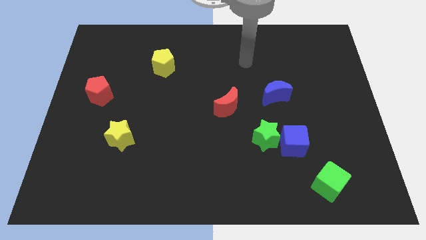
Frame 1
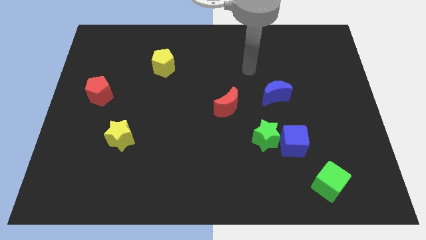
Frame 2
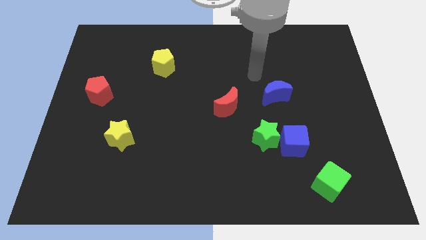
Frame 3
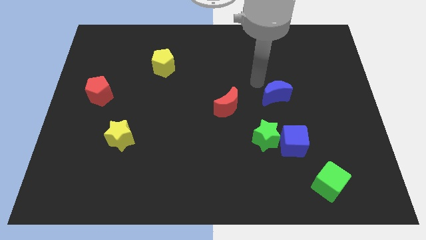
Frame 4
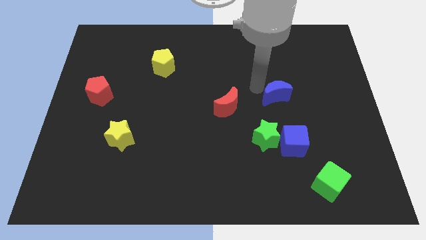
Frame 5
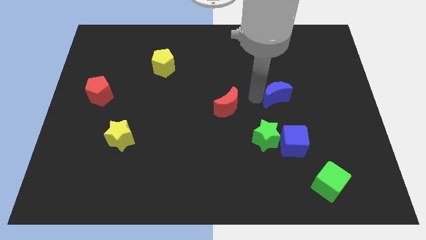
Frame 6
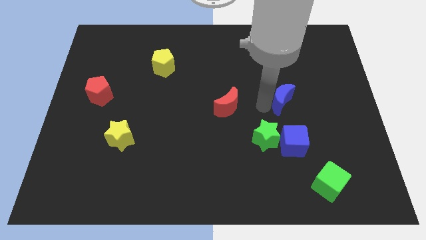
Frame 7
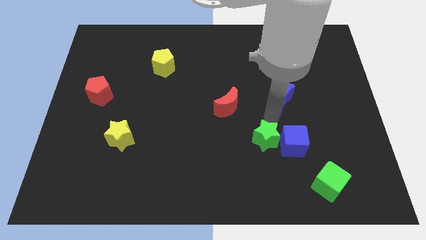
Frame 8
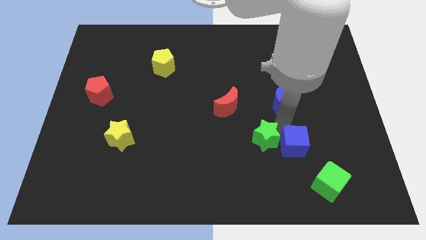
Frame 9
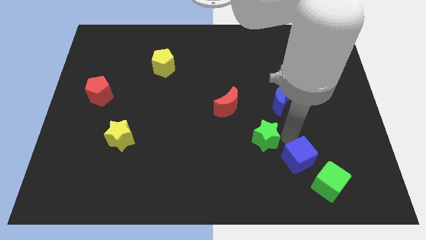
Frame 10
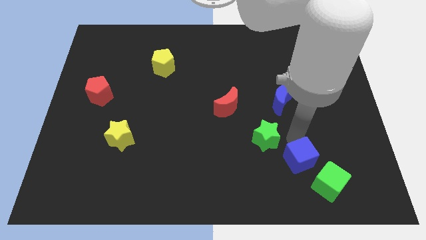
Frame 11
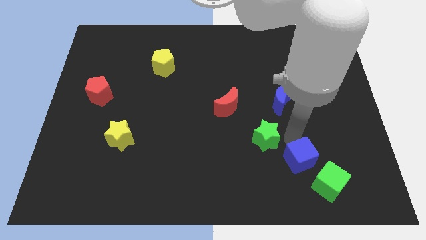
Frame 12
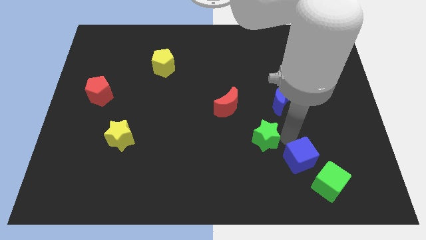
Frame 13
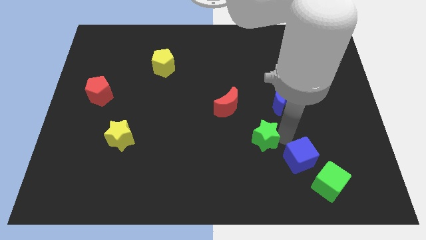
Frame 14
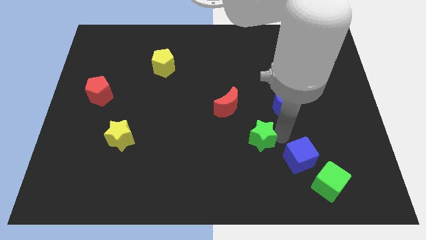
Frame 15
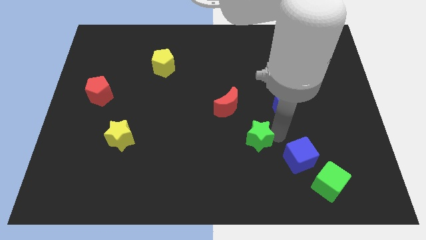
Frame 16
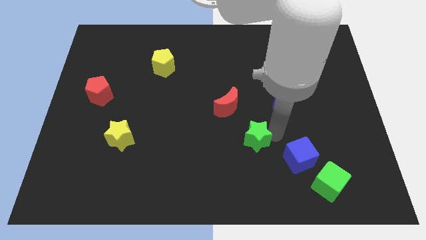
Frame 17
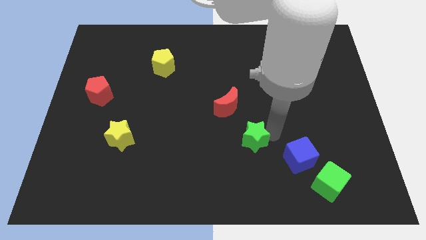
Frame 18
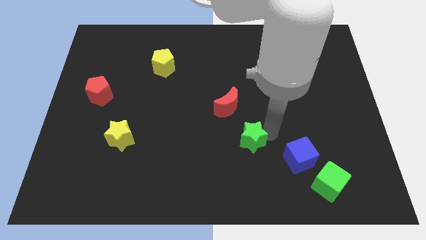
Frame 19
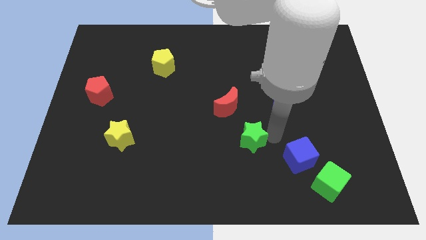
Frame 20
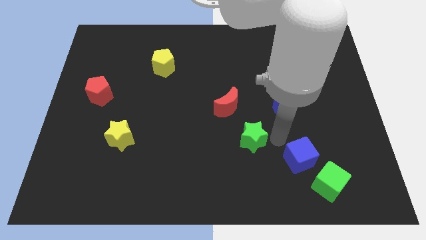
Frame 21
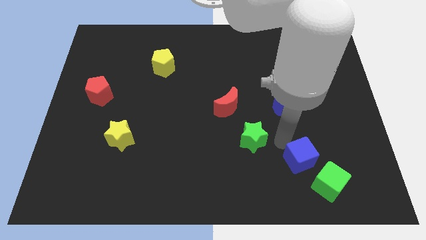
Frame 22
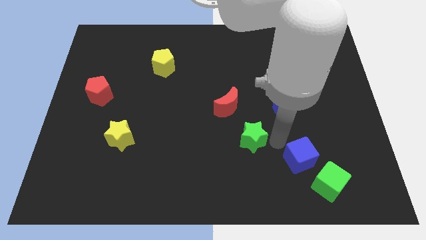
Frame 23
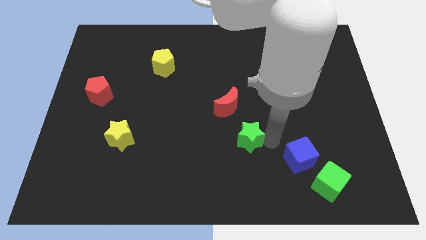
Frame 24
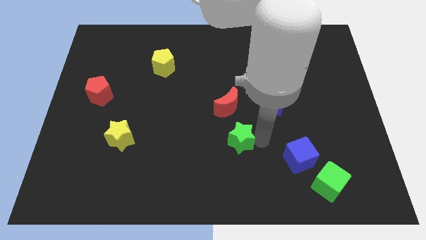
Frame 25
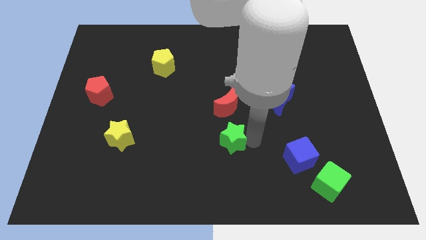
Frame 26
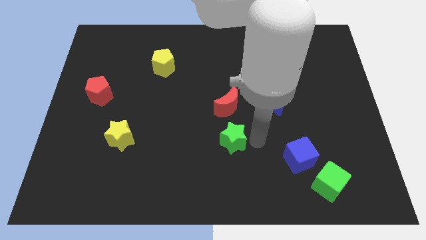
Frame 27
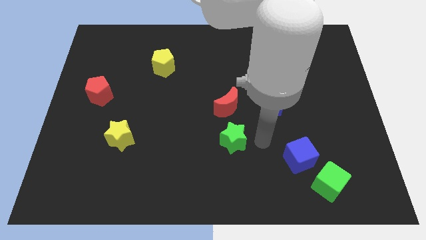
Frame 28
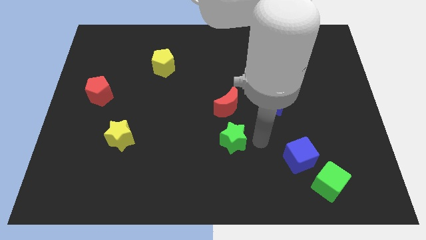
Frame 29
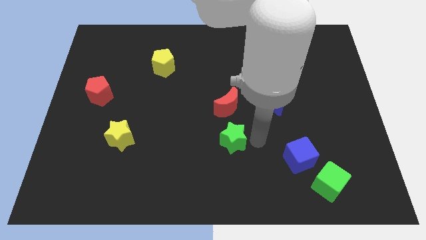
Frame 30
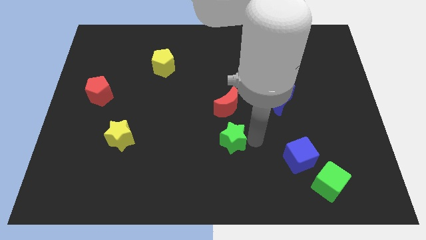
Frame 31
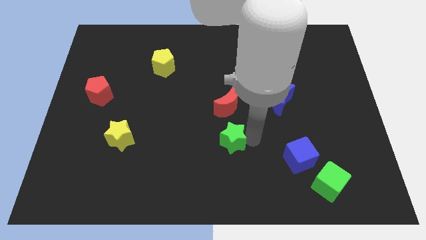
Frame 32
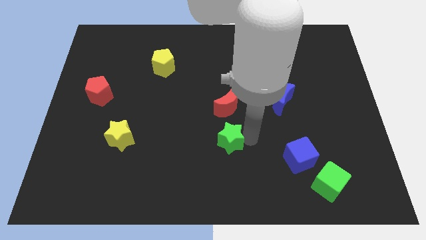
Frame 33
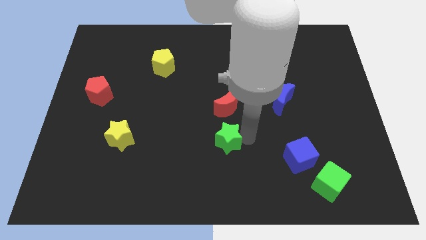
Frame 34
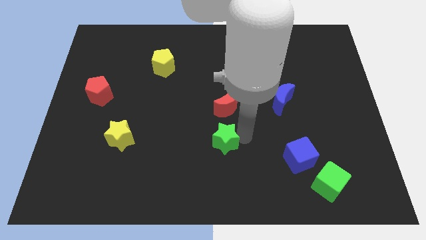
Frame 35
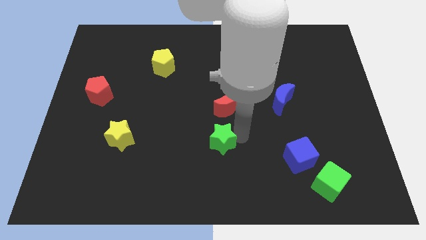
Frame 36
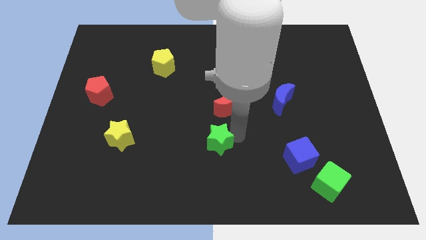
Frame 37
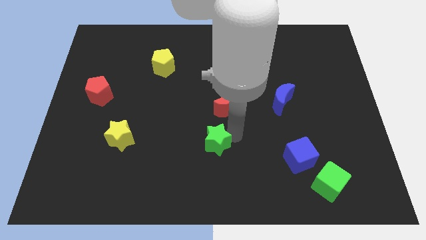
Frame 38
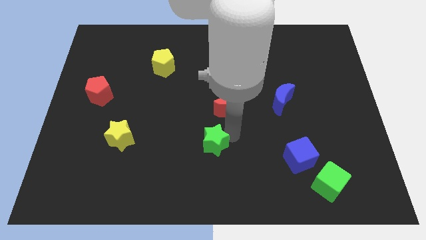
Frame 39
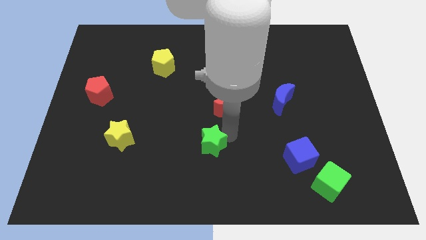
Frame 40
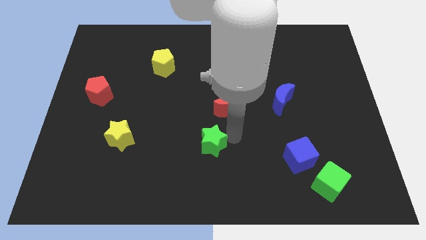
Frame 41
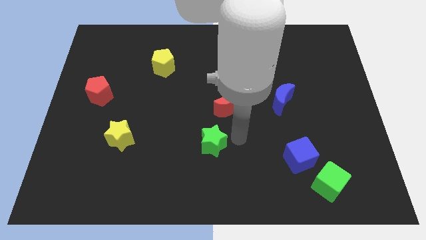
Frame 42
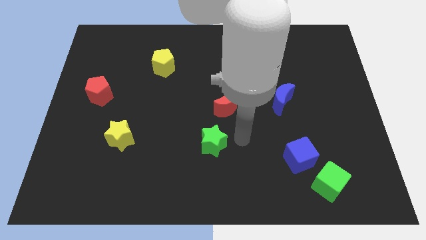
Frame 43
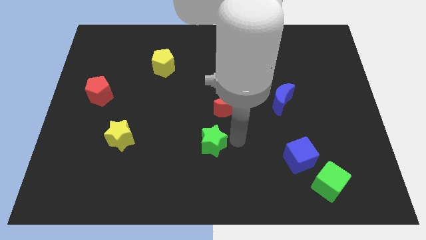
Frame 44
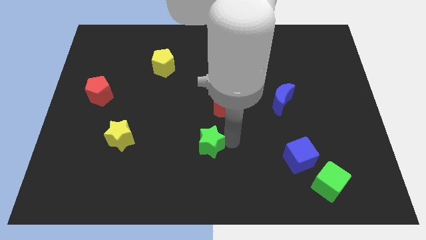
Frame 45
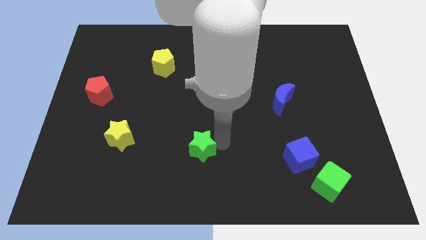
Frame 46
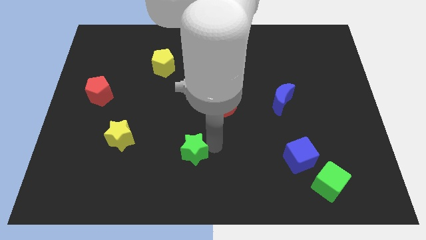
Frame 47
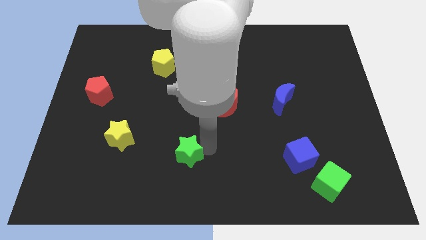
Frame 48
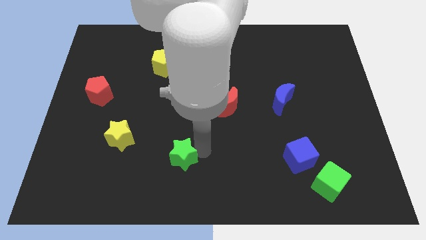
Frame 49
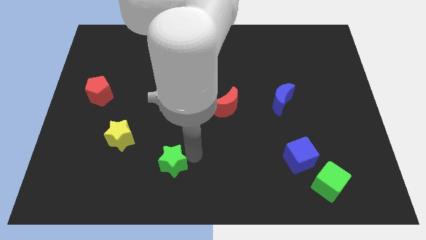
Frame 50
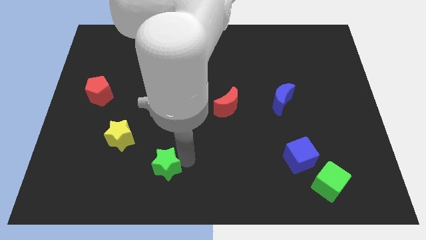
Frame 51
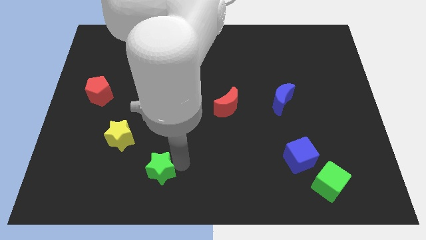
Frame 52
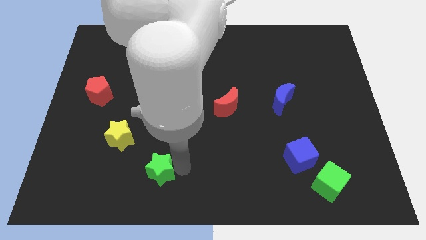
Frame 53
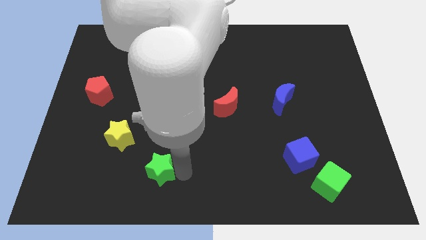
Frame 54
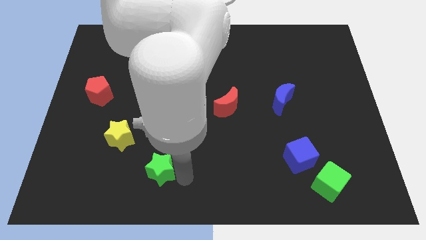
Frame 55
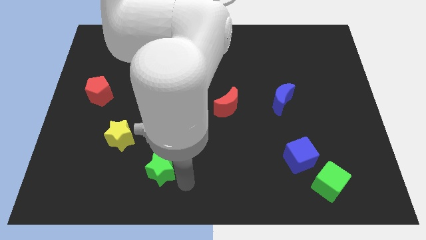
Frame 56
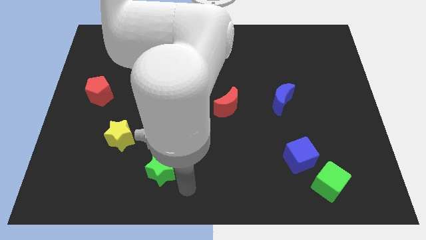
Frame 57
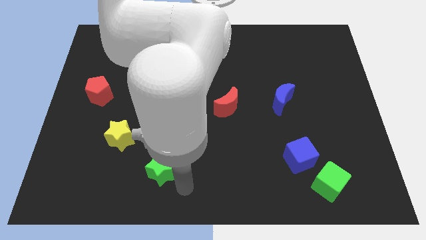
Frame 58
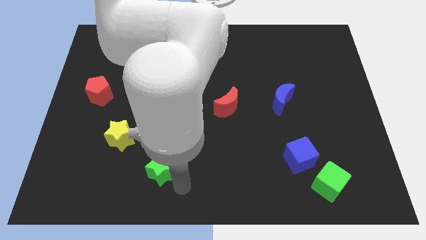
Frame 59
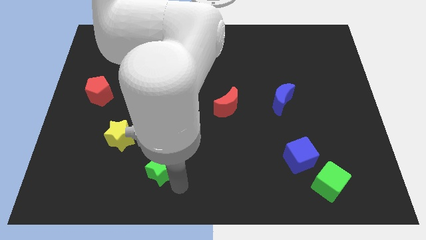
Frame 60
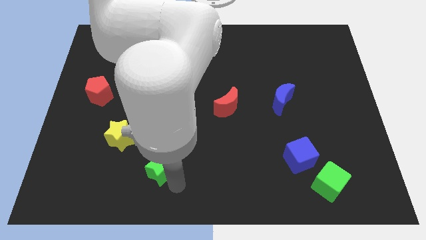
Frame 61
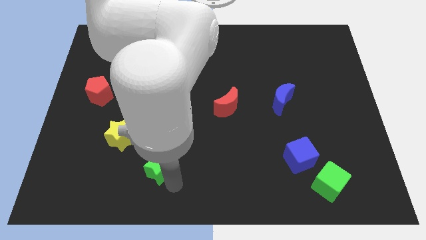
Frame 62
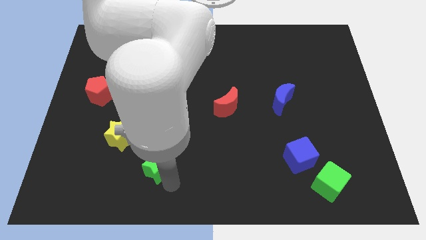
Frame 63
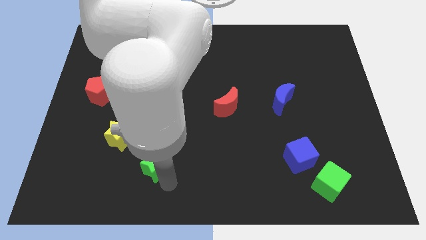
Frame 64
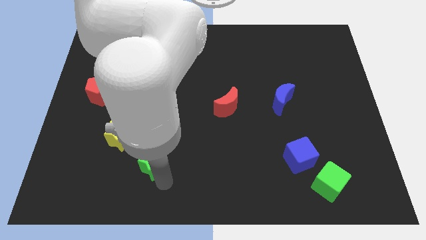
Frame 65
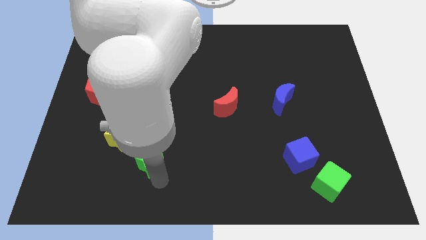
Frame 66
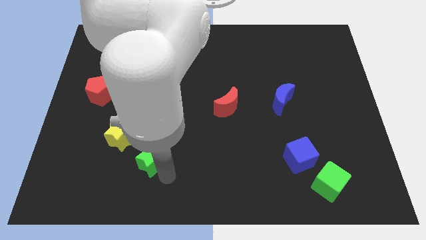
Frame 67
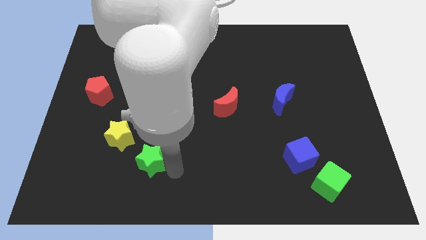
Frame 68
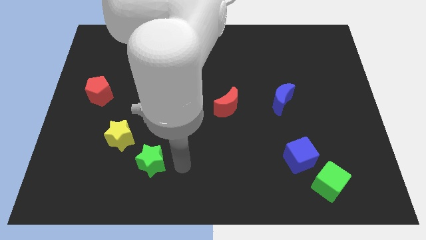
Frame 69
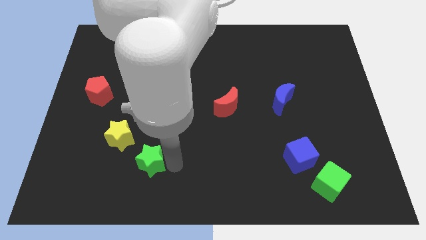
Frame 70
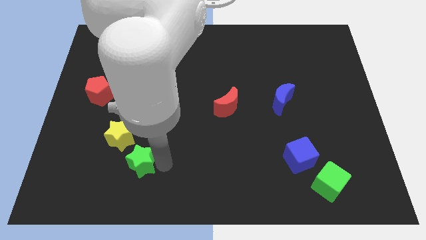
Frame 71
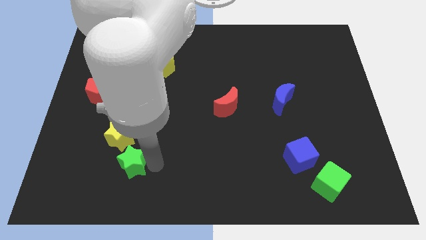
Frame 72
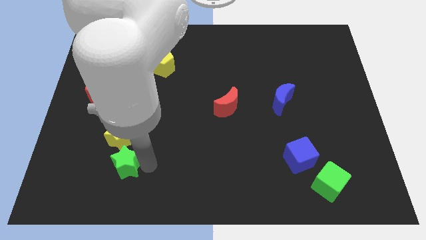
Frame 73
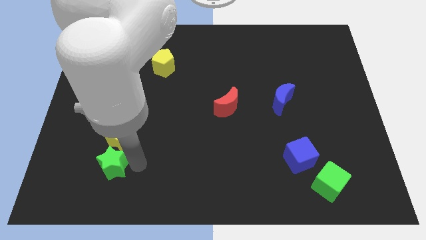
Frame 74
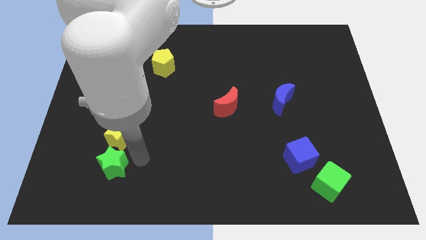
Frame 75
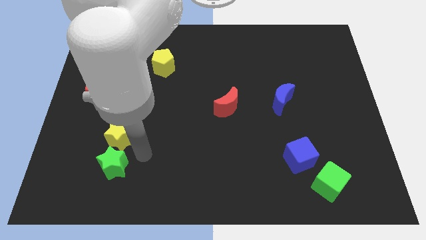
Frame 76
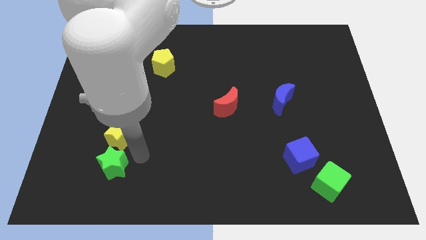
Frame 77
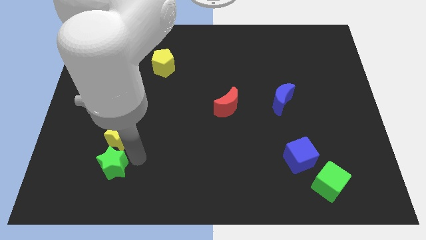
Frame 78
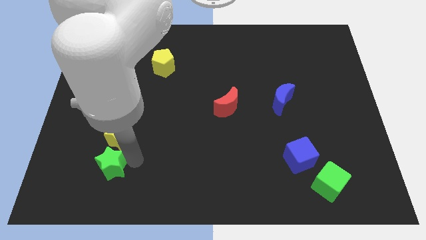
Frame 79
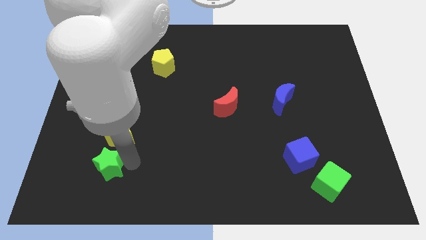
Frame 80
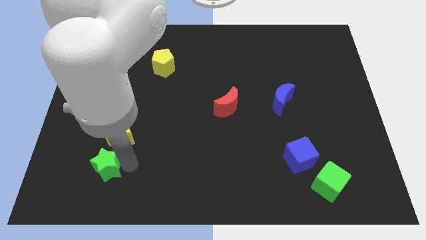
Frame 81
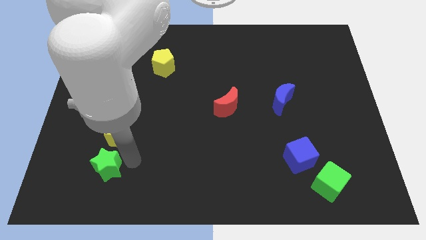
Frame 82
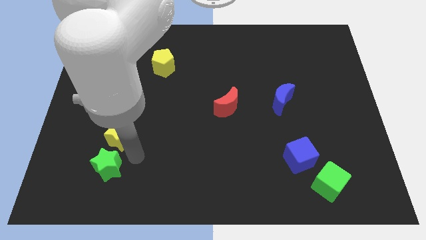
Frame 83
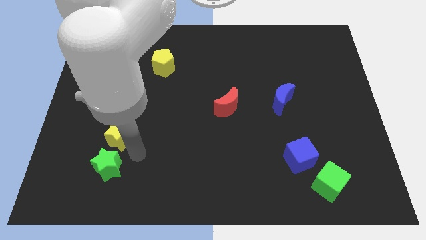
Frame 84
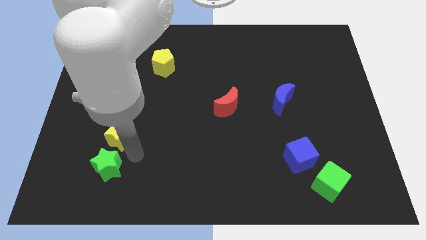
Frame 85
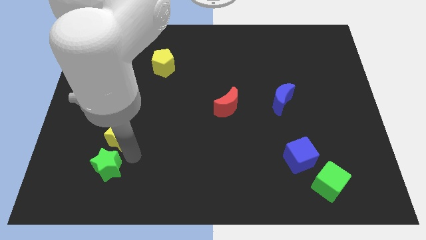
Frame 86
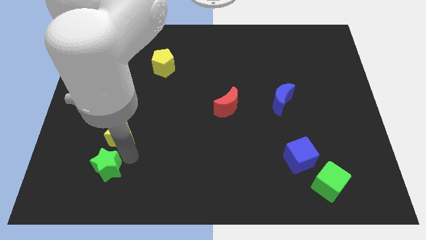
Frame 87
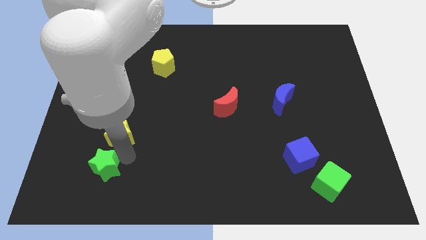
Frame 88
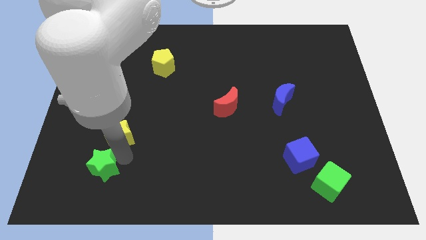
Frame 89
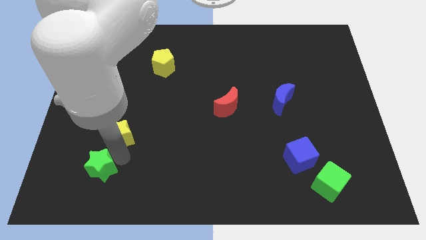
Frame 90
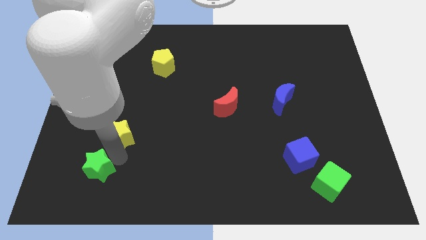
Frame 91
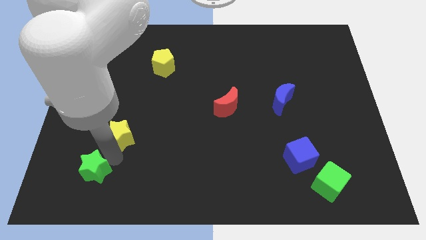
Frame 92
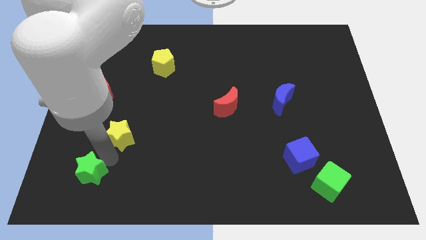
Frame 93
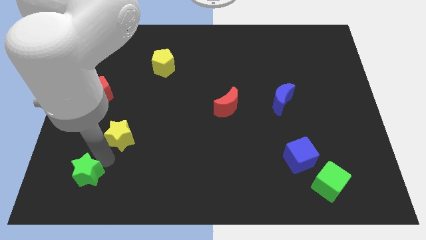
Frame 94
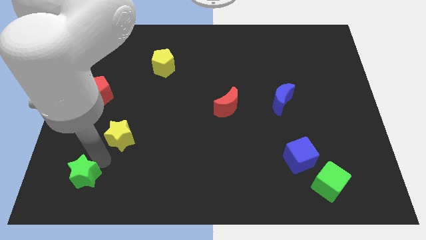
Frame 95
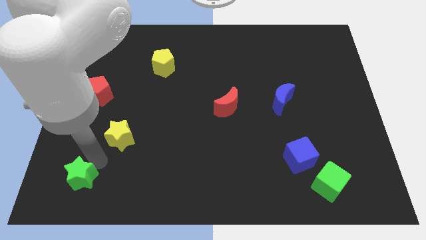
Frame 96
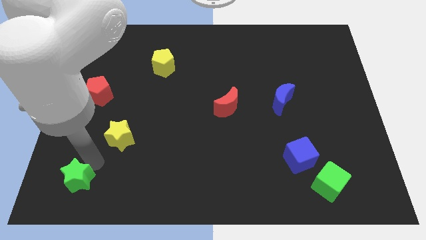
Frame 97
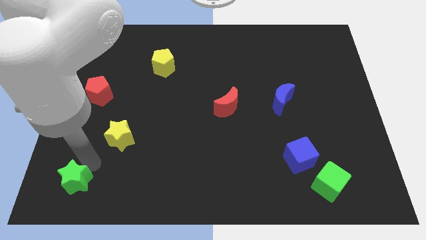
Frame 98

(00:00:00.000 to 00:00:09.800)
push the green star to the lower left corner
